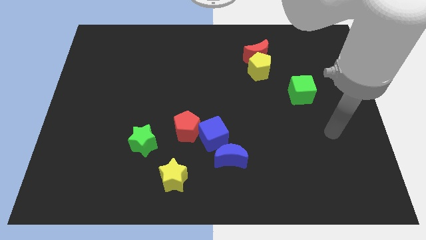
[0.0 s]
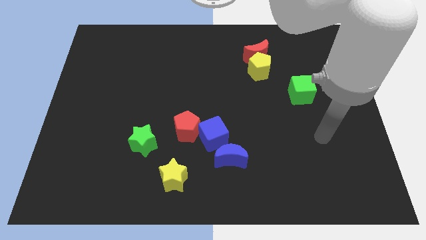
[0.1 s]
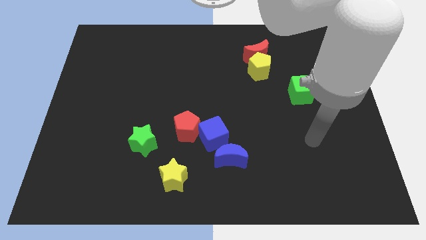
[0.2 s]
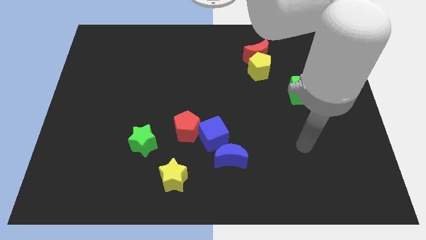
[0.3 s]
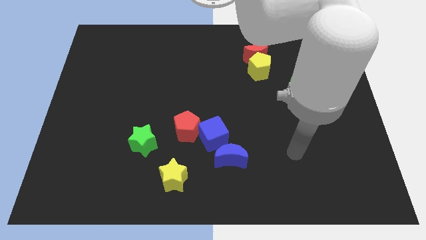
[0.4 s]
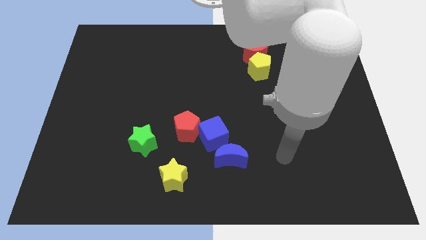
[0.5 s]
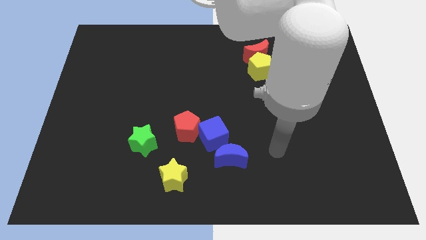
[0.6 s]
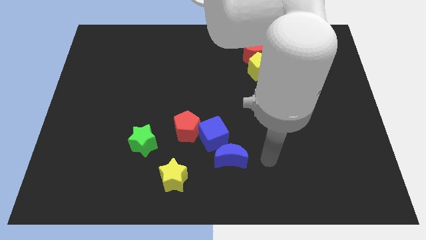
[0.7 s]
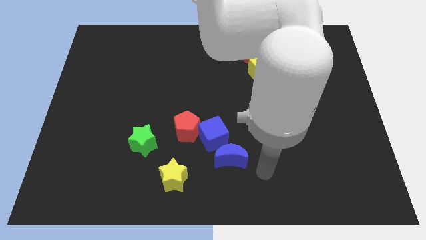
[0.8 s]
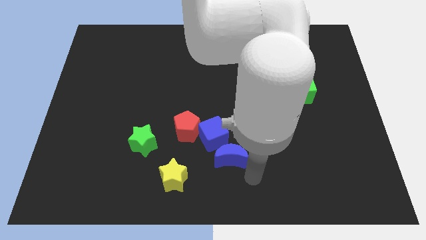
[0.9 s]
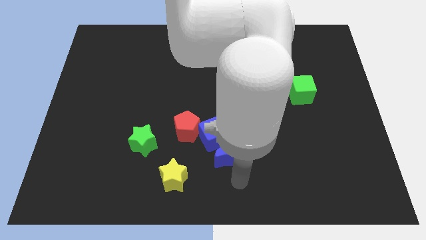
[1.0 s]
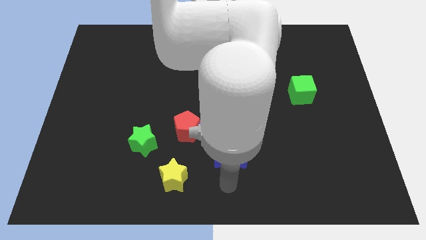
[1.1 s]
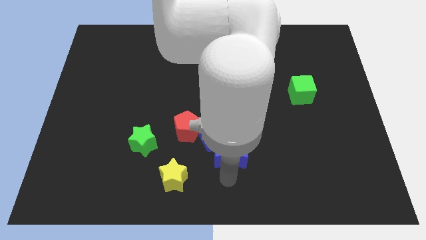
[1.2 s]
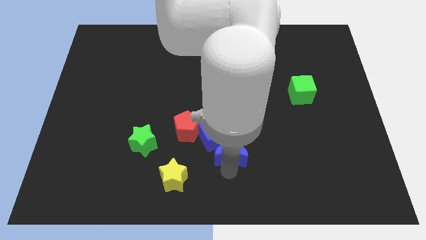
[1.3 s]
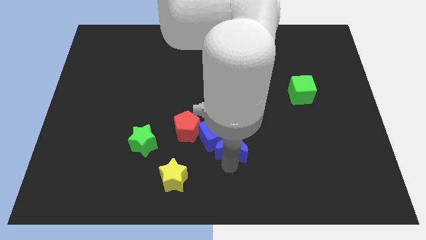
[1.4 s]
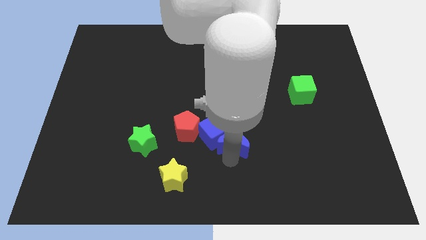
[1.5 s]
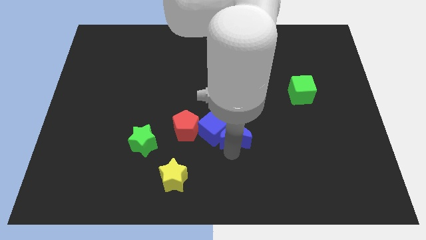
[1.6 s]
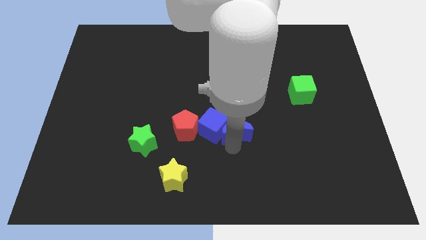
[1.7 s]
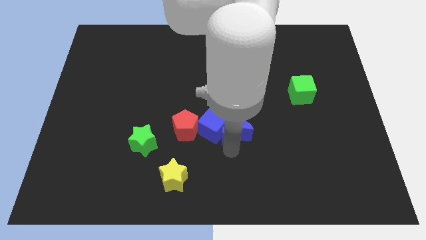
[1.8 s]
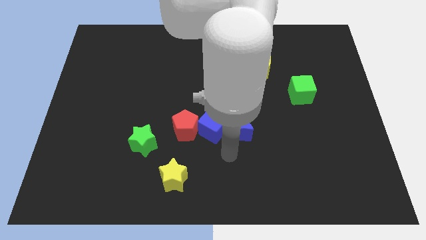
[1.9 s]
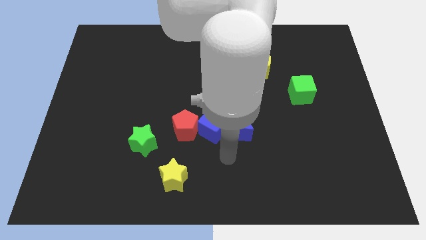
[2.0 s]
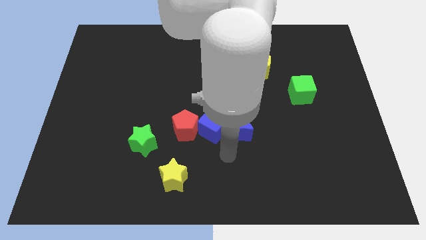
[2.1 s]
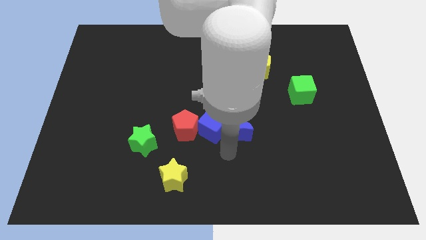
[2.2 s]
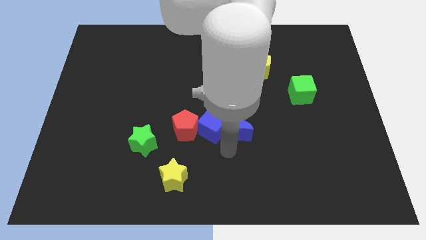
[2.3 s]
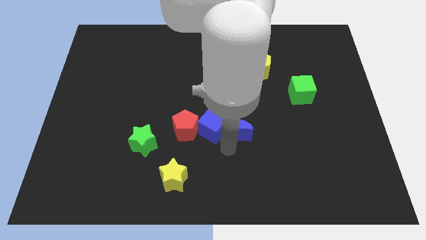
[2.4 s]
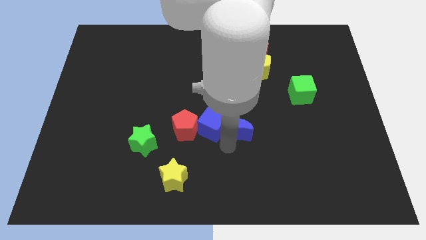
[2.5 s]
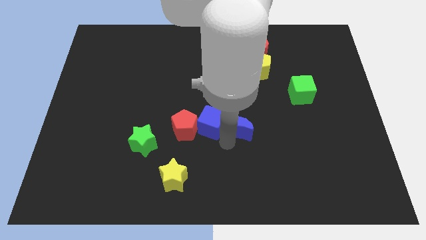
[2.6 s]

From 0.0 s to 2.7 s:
move the blue moon upwards a little bit

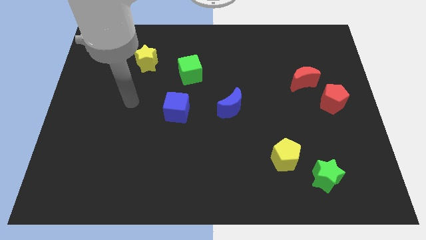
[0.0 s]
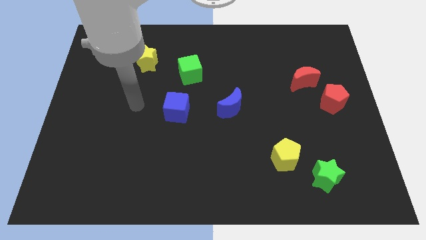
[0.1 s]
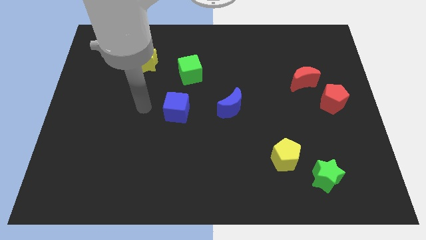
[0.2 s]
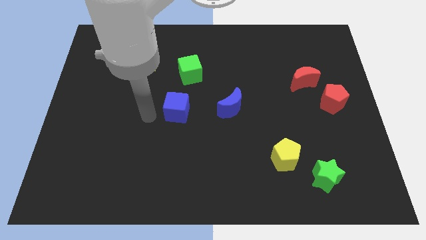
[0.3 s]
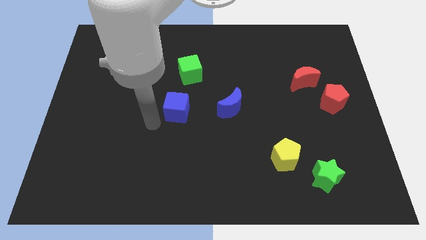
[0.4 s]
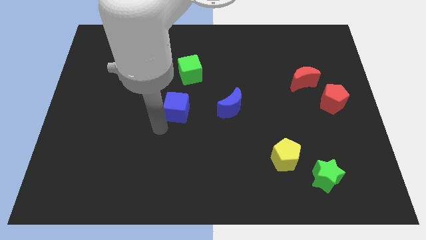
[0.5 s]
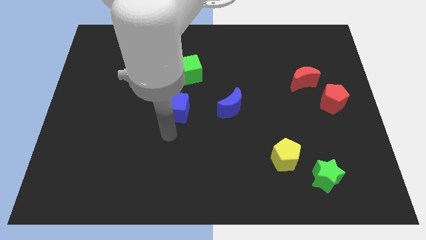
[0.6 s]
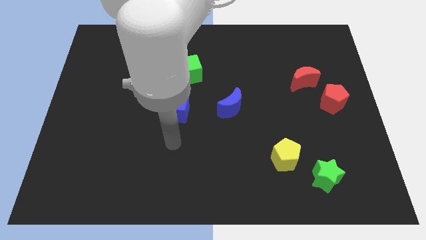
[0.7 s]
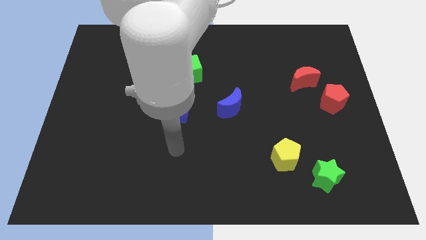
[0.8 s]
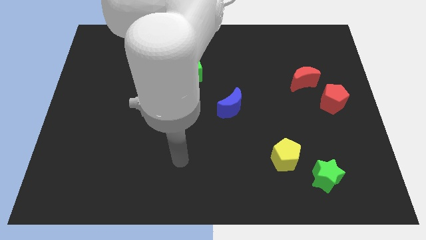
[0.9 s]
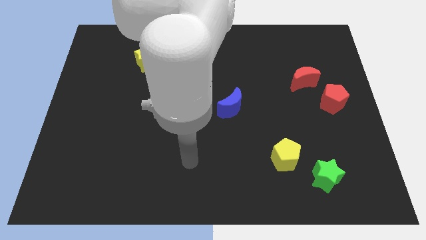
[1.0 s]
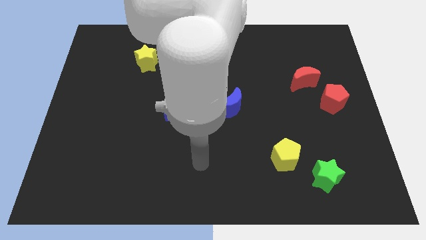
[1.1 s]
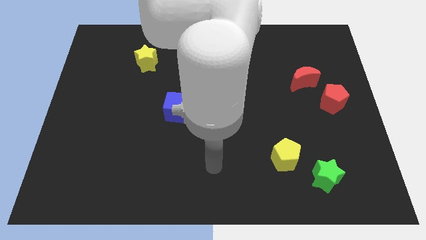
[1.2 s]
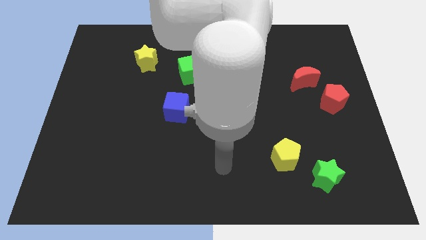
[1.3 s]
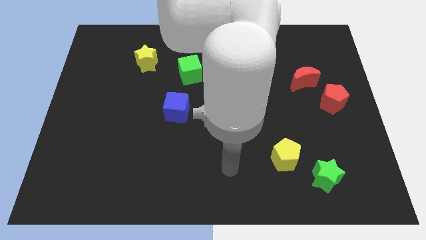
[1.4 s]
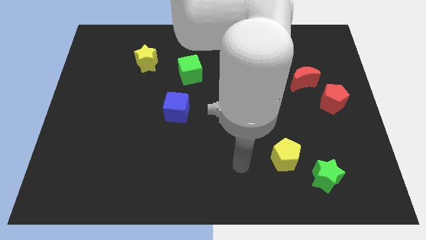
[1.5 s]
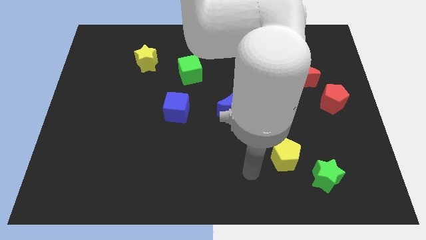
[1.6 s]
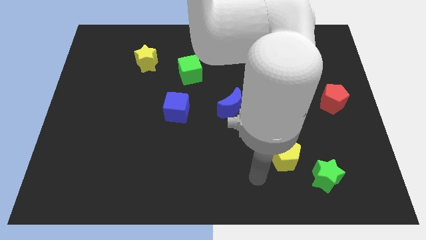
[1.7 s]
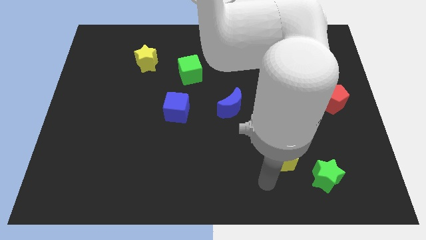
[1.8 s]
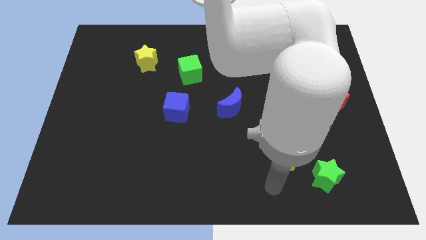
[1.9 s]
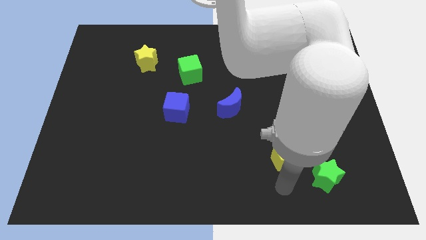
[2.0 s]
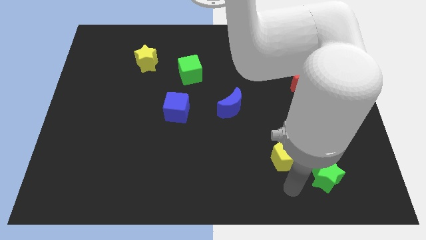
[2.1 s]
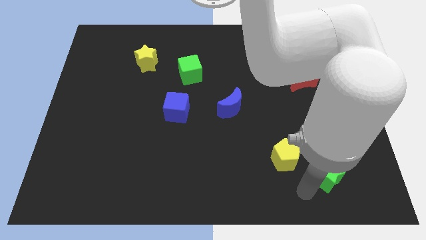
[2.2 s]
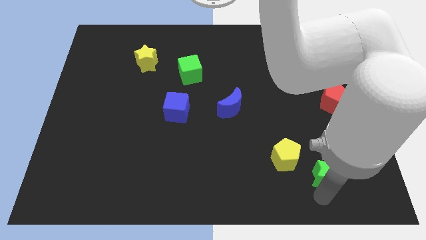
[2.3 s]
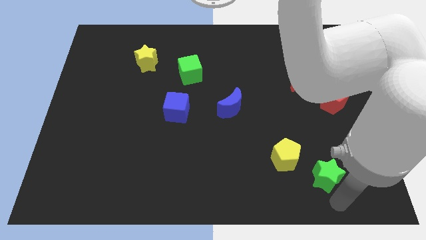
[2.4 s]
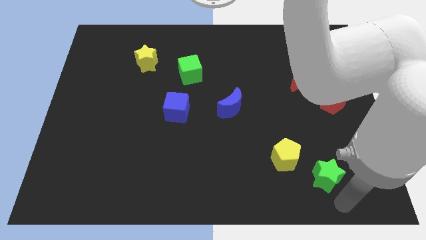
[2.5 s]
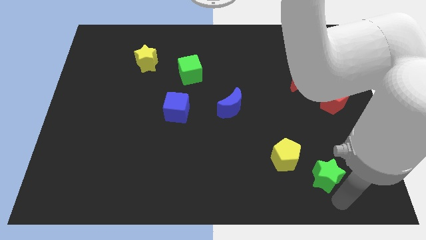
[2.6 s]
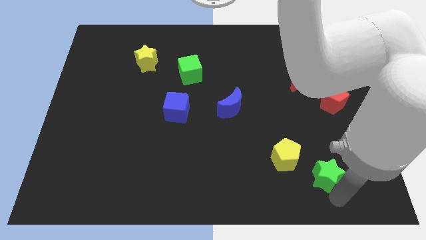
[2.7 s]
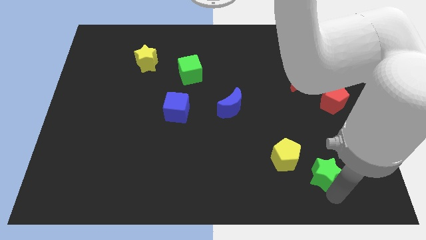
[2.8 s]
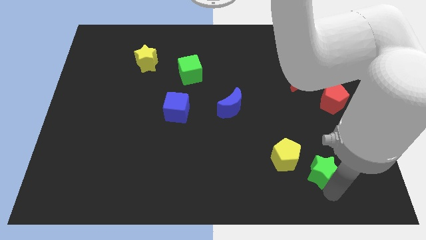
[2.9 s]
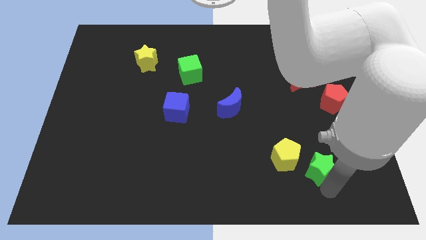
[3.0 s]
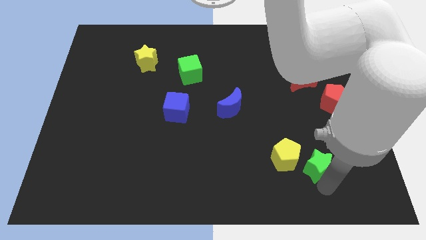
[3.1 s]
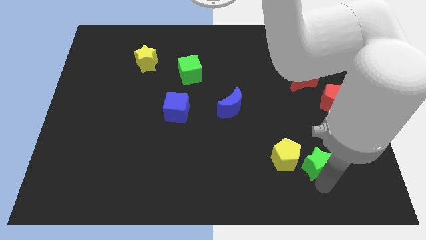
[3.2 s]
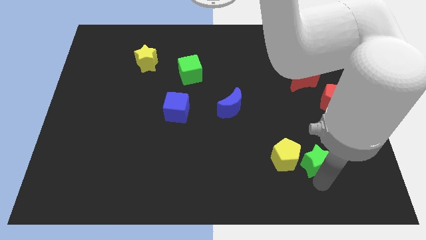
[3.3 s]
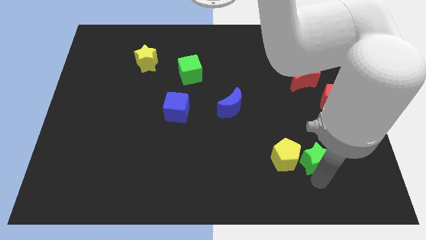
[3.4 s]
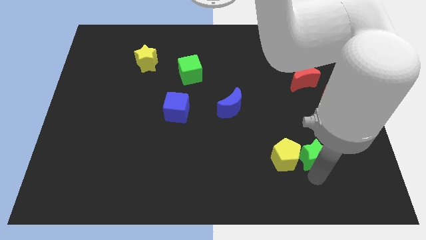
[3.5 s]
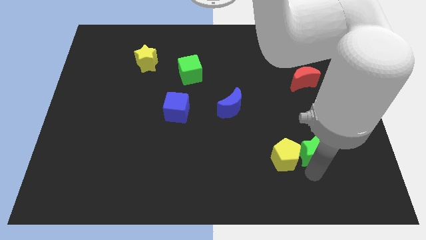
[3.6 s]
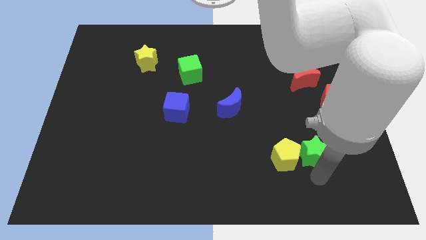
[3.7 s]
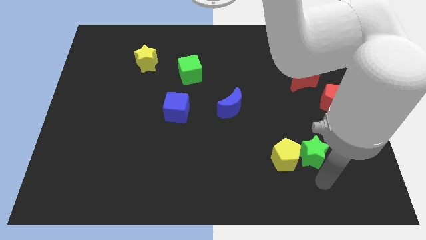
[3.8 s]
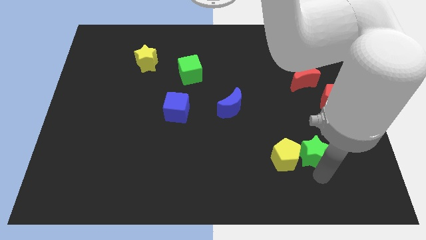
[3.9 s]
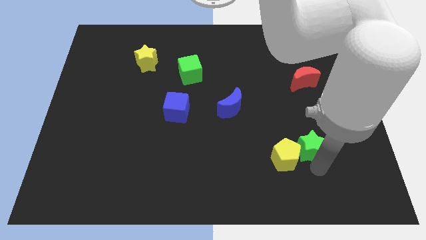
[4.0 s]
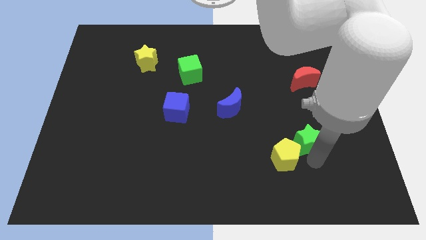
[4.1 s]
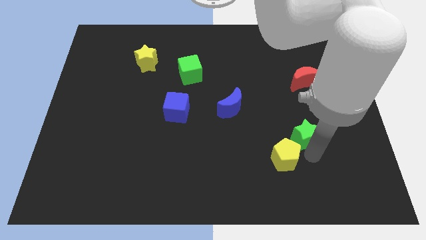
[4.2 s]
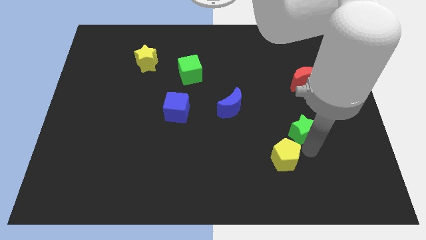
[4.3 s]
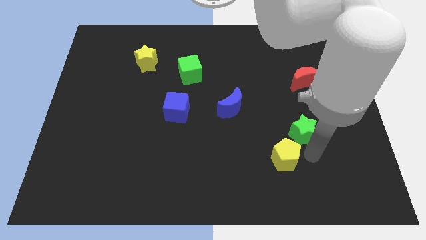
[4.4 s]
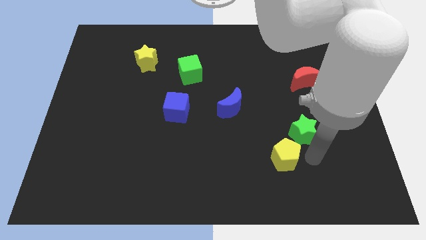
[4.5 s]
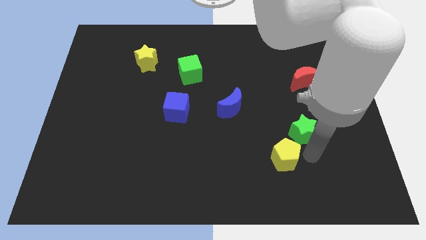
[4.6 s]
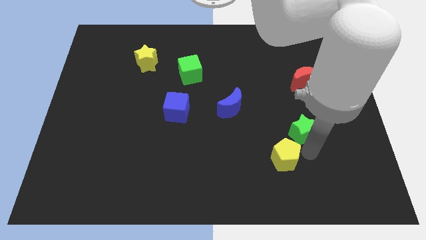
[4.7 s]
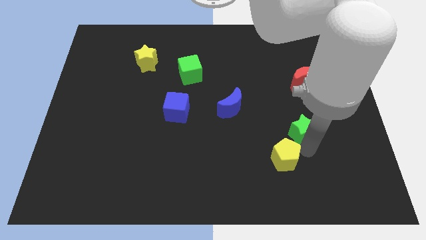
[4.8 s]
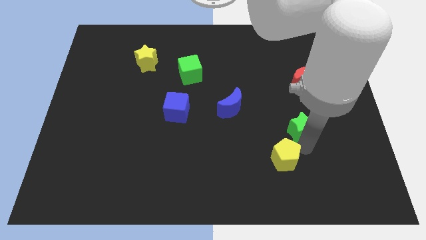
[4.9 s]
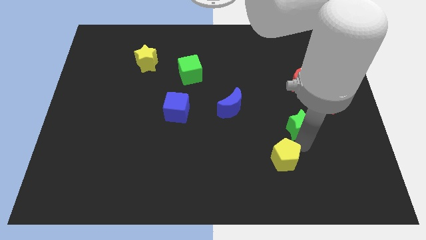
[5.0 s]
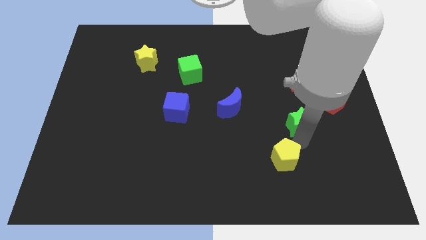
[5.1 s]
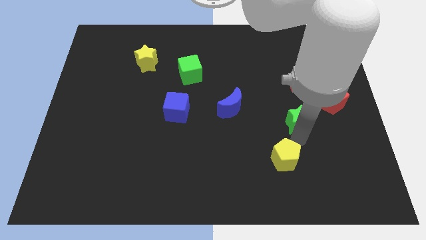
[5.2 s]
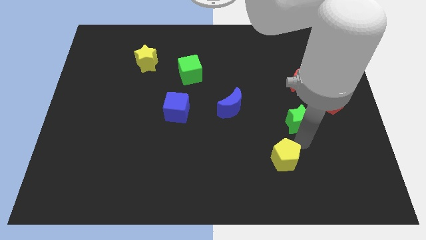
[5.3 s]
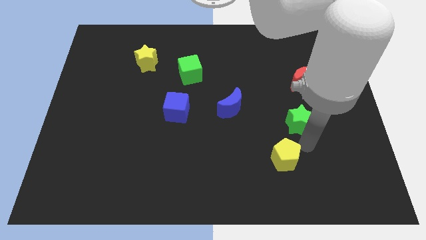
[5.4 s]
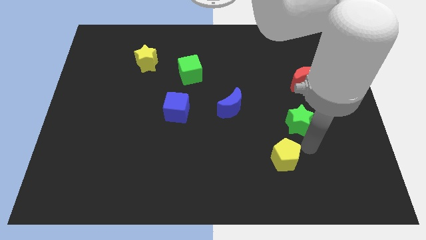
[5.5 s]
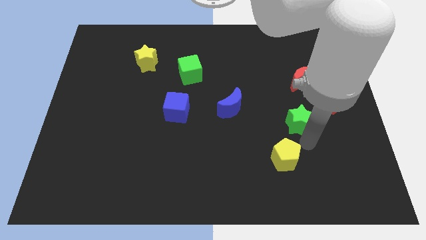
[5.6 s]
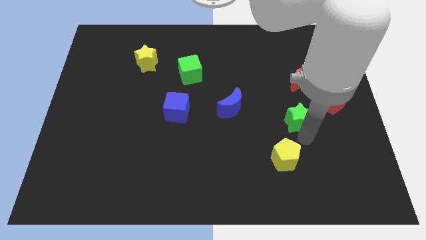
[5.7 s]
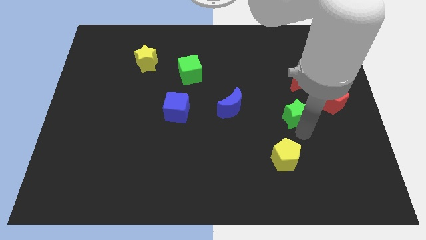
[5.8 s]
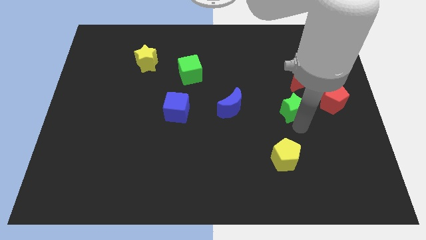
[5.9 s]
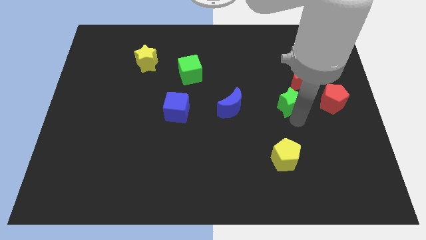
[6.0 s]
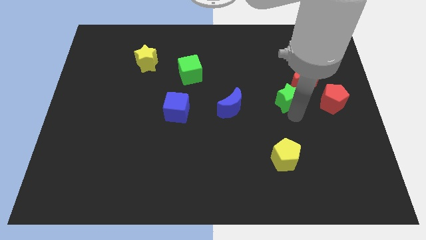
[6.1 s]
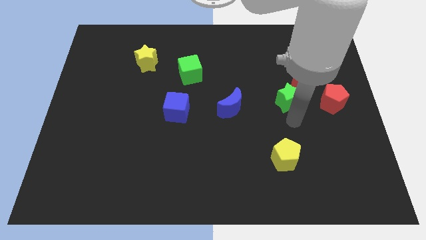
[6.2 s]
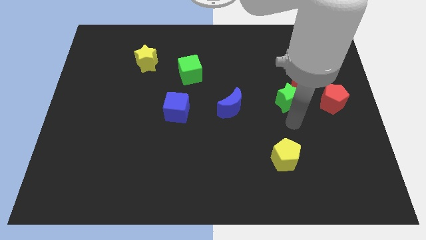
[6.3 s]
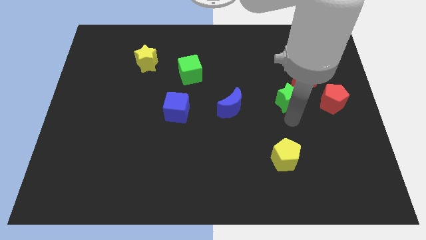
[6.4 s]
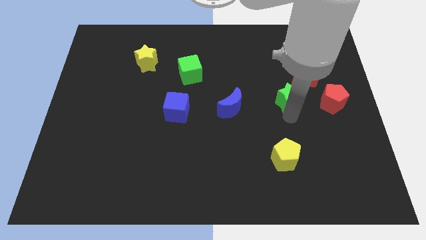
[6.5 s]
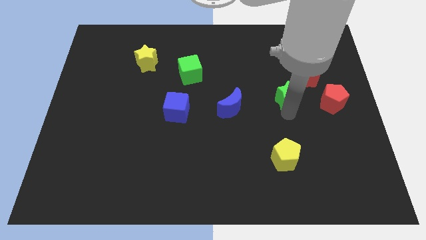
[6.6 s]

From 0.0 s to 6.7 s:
move the green star upwards
